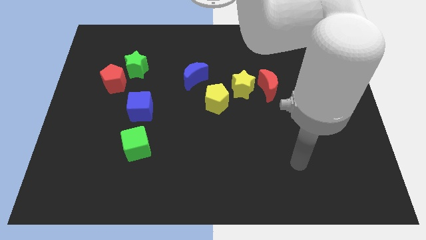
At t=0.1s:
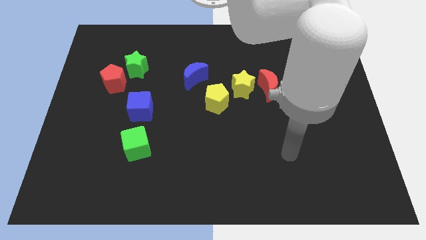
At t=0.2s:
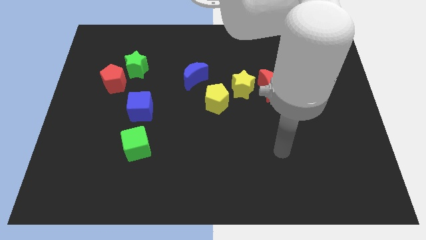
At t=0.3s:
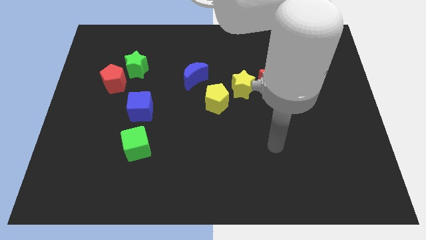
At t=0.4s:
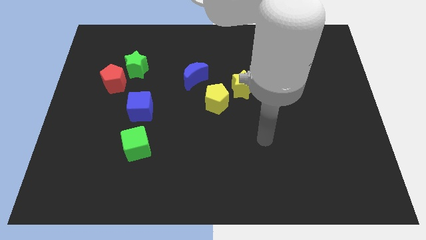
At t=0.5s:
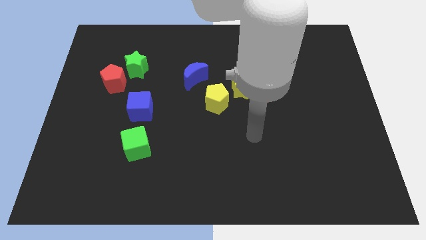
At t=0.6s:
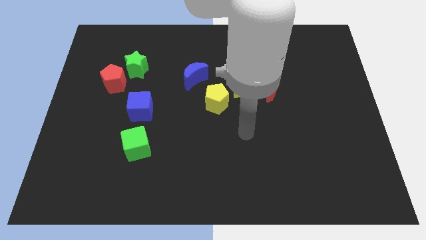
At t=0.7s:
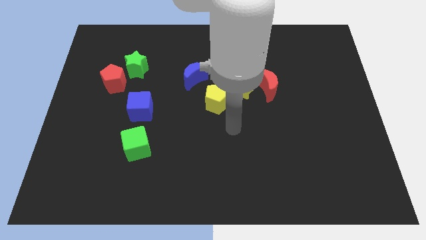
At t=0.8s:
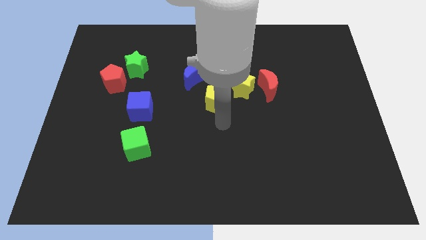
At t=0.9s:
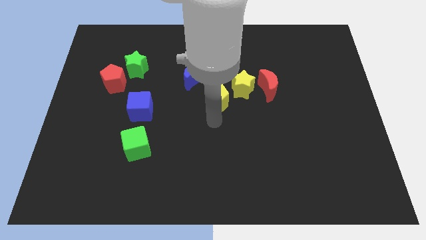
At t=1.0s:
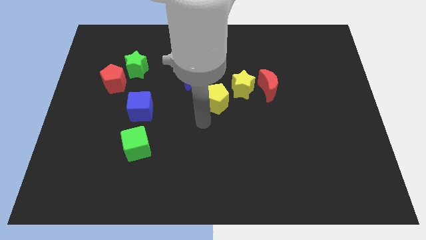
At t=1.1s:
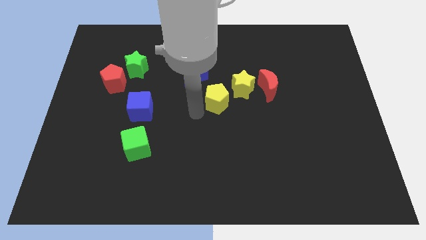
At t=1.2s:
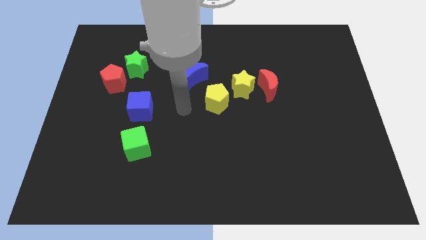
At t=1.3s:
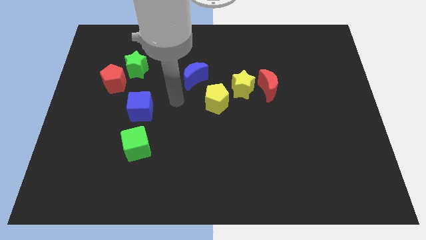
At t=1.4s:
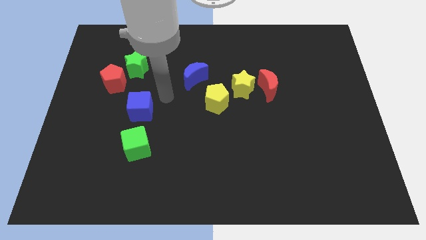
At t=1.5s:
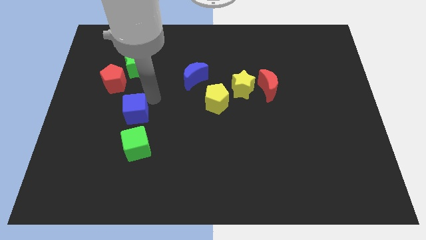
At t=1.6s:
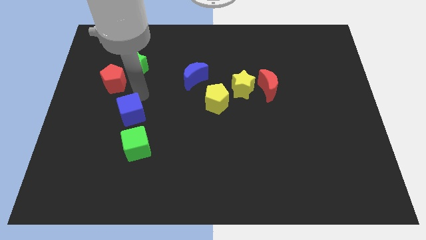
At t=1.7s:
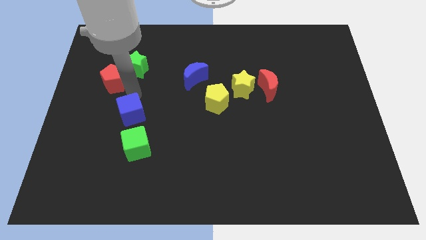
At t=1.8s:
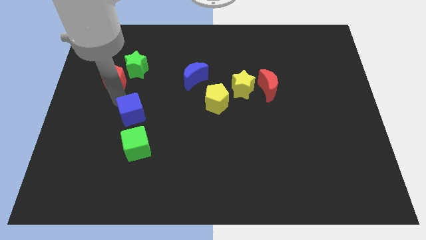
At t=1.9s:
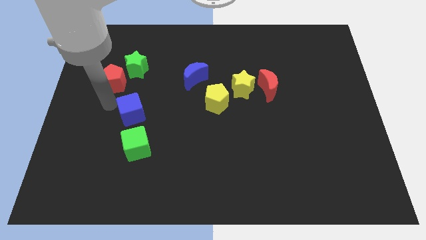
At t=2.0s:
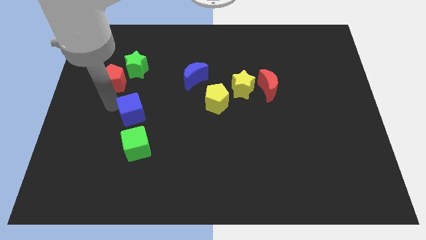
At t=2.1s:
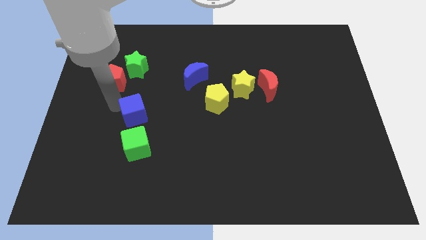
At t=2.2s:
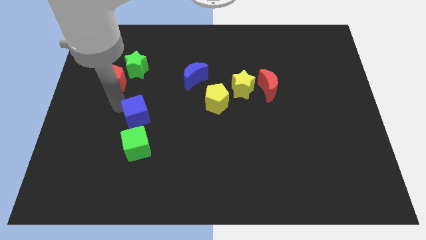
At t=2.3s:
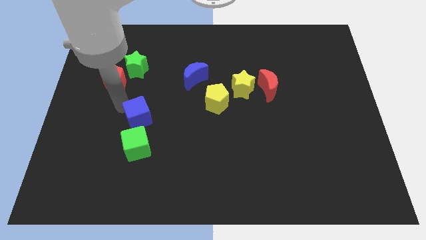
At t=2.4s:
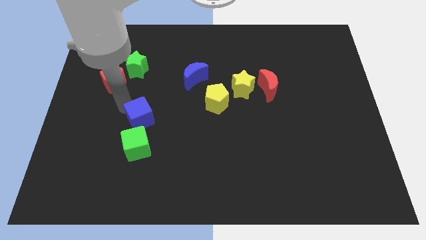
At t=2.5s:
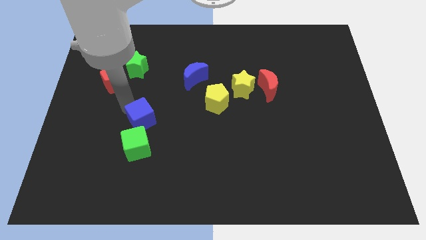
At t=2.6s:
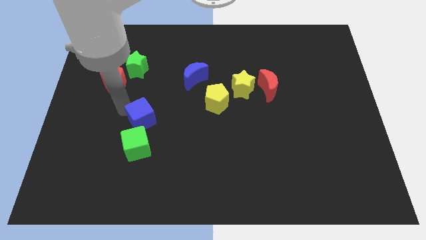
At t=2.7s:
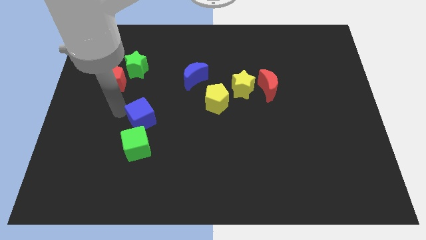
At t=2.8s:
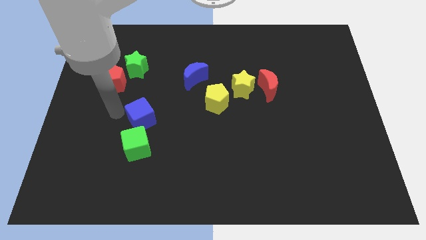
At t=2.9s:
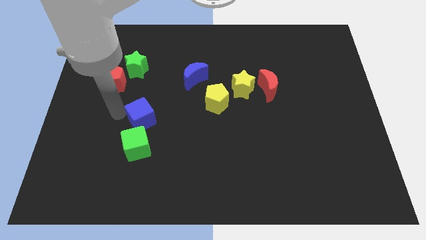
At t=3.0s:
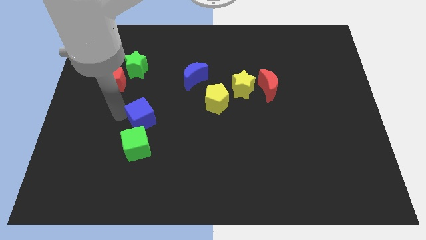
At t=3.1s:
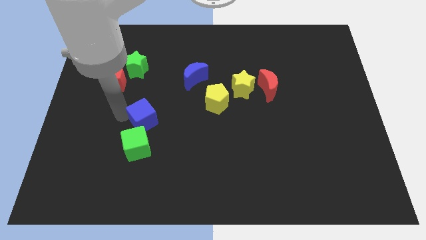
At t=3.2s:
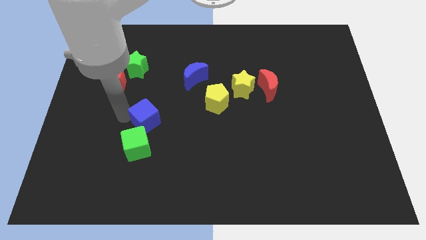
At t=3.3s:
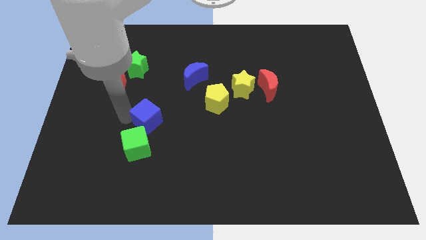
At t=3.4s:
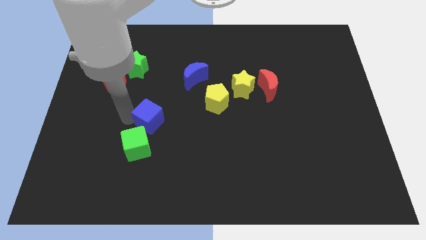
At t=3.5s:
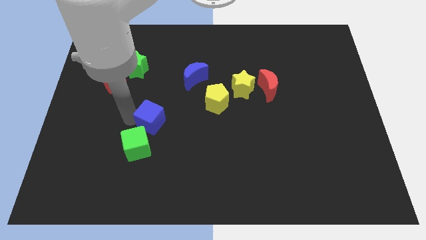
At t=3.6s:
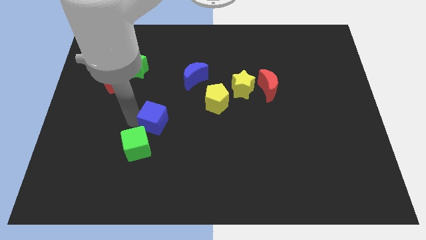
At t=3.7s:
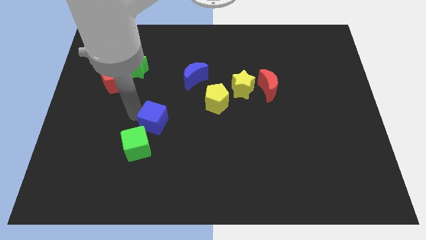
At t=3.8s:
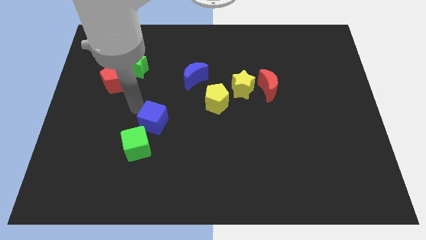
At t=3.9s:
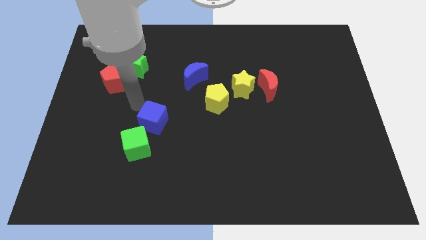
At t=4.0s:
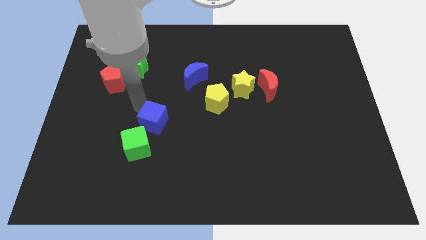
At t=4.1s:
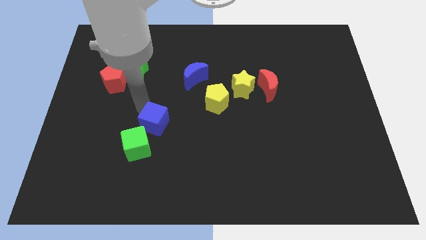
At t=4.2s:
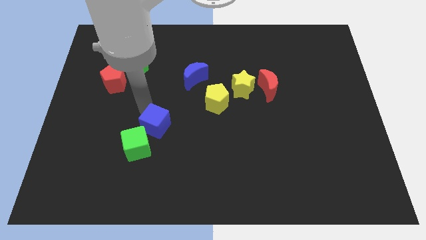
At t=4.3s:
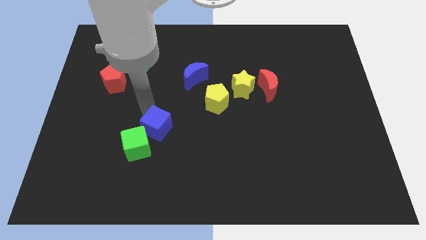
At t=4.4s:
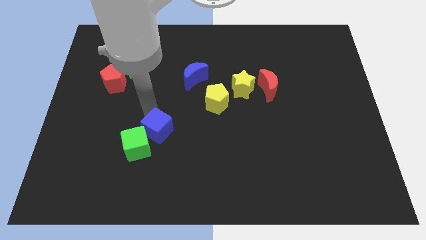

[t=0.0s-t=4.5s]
push the blue cube downwards and to the right a little

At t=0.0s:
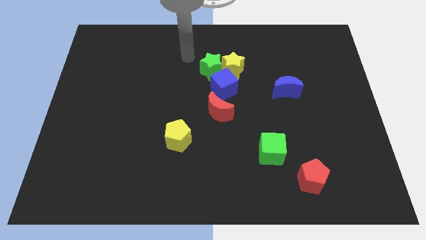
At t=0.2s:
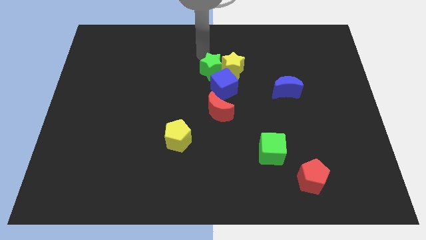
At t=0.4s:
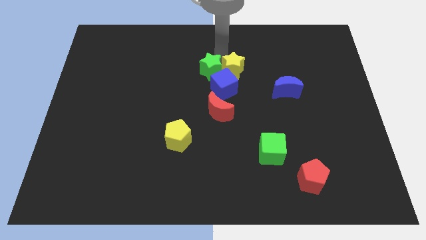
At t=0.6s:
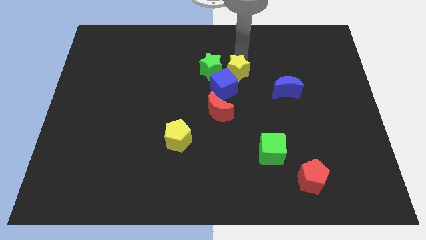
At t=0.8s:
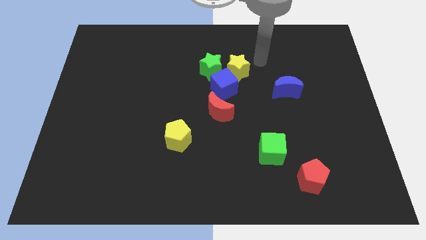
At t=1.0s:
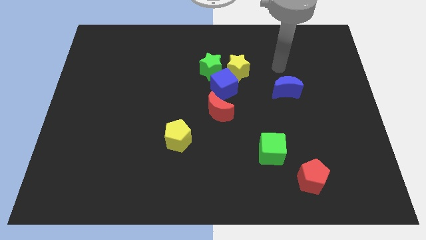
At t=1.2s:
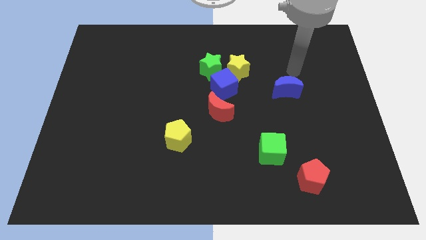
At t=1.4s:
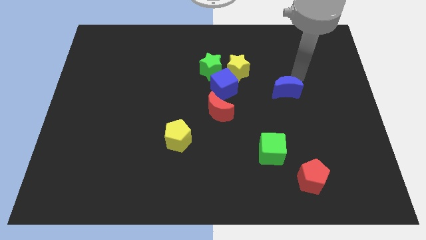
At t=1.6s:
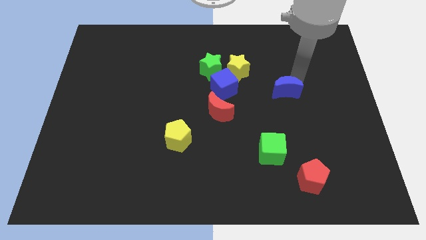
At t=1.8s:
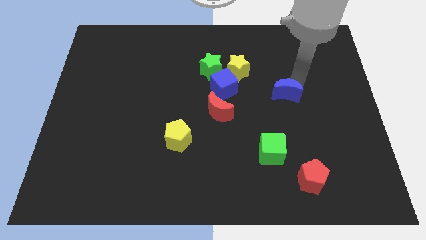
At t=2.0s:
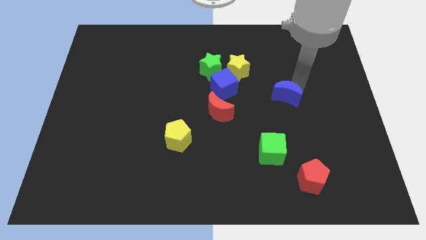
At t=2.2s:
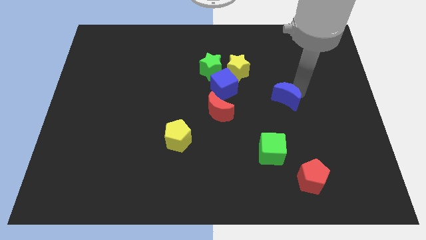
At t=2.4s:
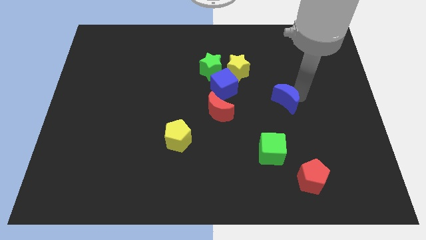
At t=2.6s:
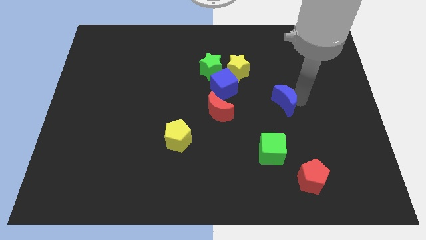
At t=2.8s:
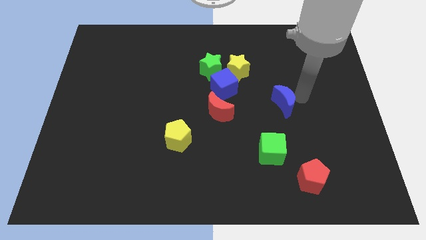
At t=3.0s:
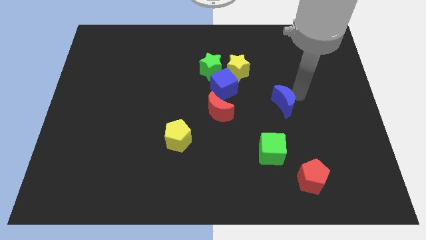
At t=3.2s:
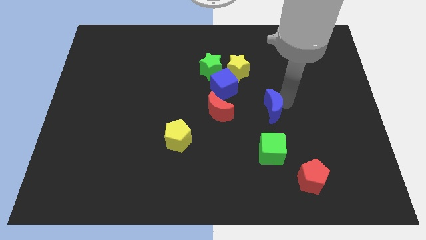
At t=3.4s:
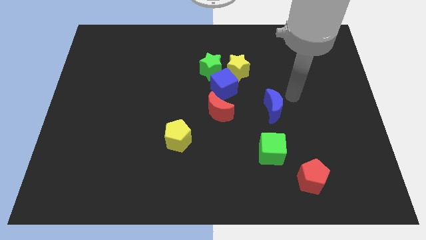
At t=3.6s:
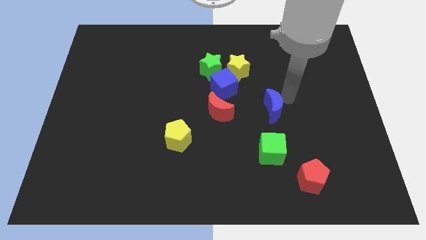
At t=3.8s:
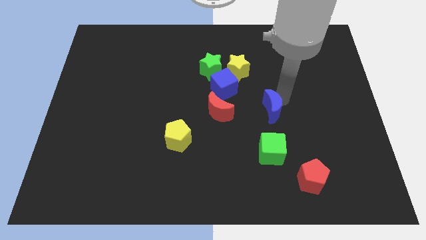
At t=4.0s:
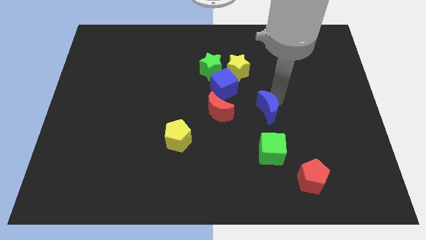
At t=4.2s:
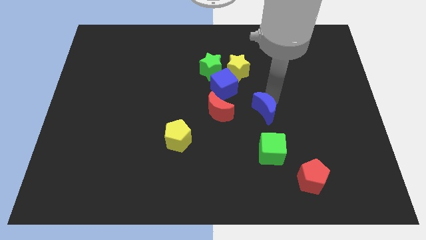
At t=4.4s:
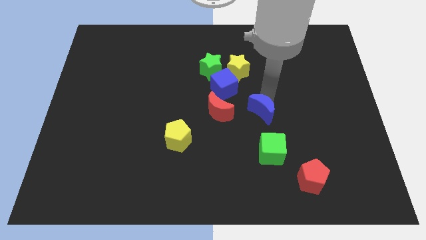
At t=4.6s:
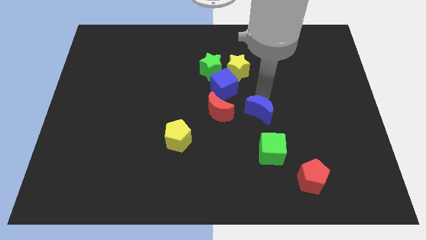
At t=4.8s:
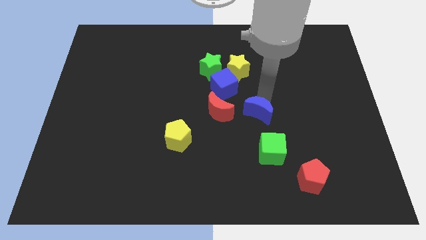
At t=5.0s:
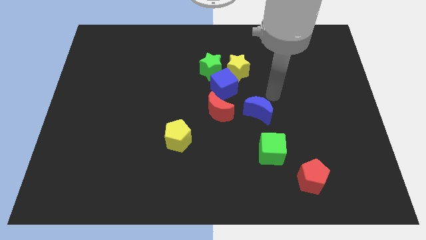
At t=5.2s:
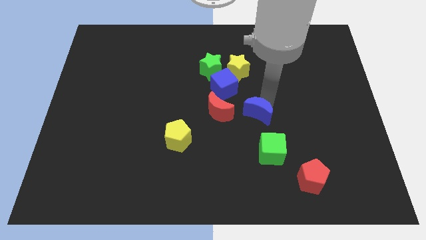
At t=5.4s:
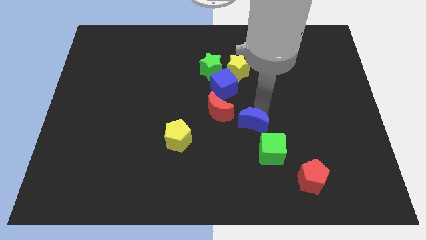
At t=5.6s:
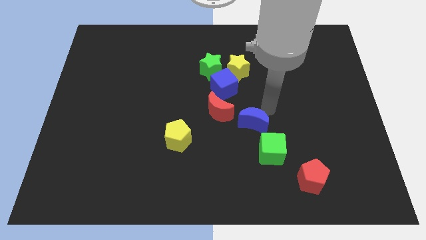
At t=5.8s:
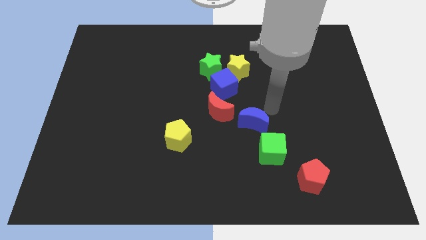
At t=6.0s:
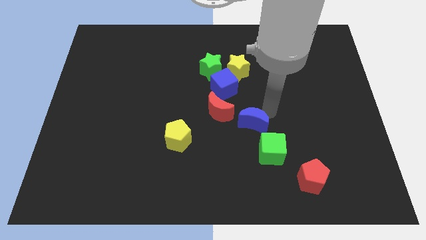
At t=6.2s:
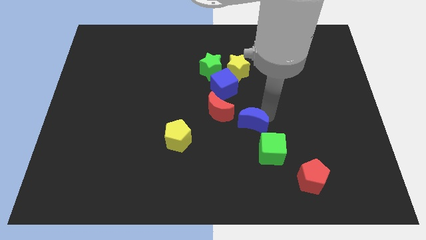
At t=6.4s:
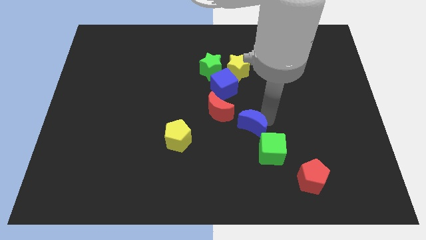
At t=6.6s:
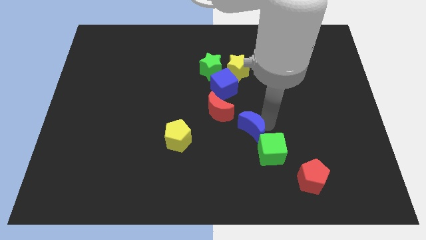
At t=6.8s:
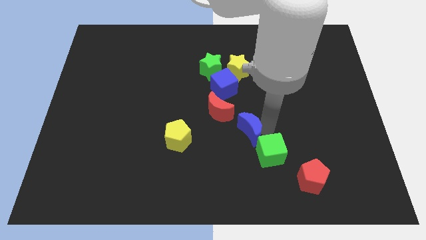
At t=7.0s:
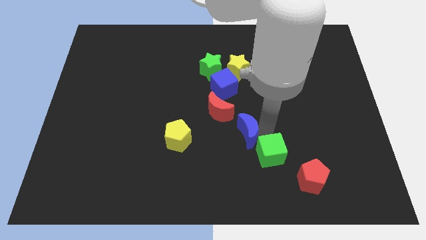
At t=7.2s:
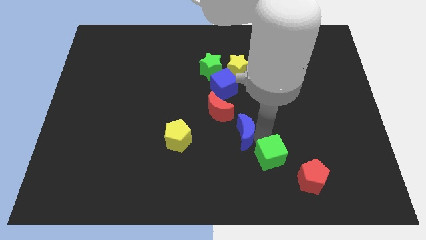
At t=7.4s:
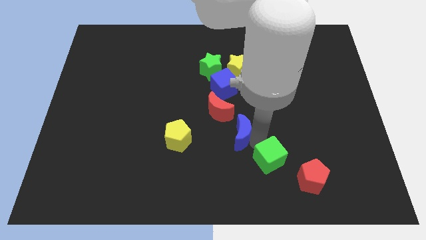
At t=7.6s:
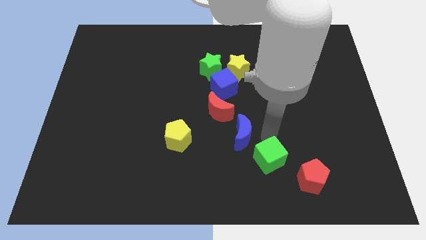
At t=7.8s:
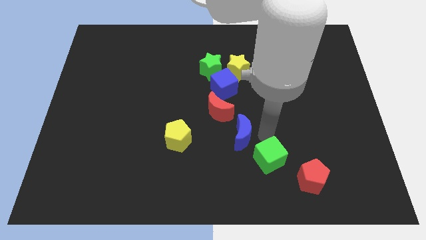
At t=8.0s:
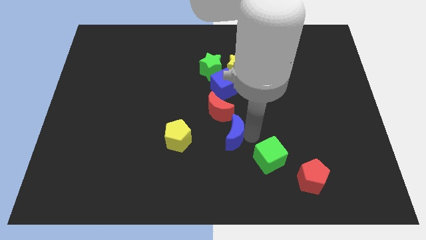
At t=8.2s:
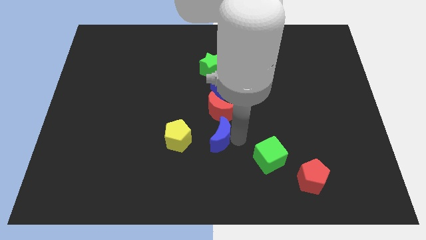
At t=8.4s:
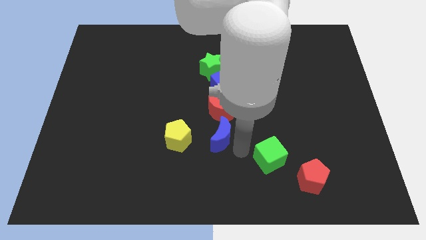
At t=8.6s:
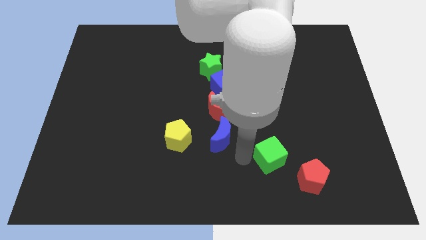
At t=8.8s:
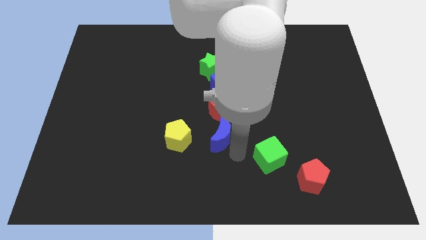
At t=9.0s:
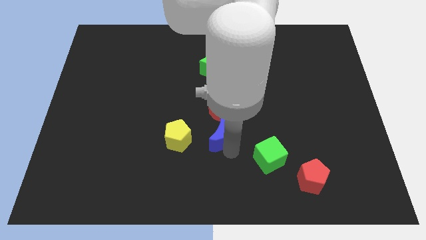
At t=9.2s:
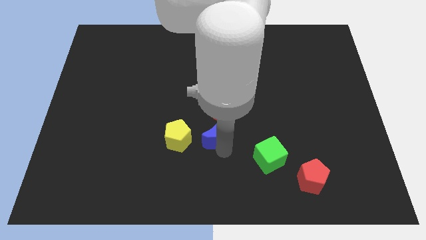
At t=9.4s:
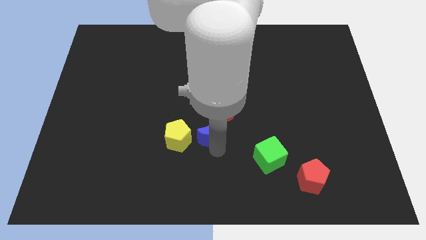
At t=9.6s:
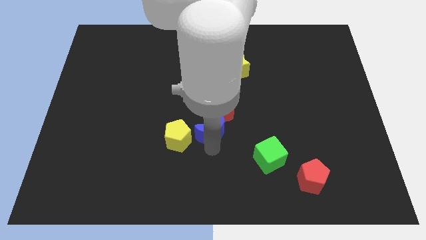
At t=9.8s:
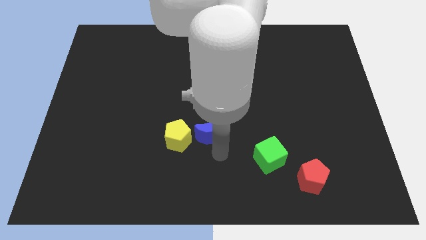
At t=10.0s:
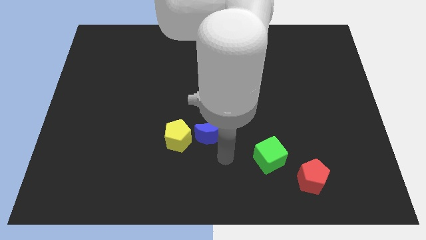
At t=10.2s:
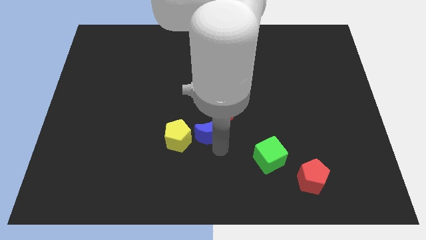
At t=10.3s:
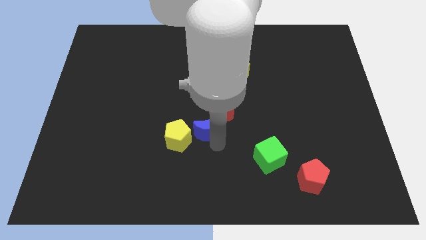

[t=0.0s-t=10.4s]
slide the blue moon left somewhat
